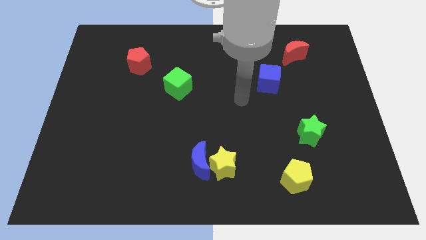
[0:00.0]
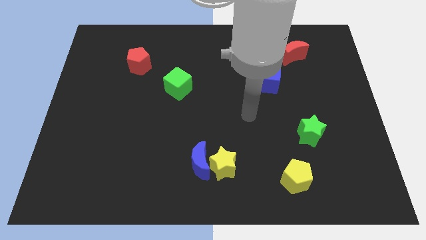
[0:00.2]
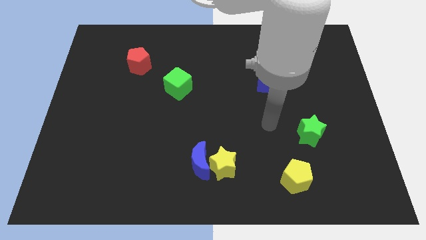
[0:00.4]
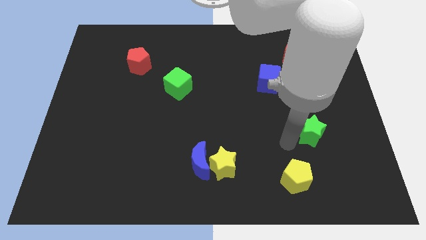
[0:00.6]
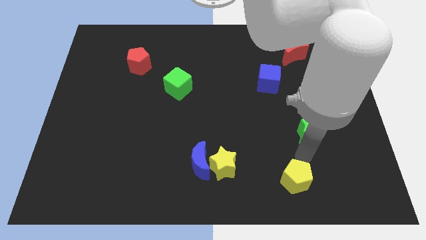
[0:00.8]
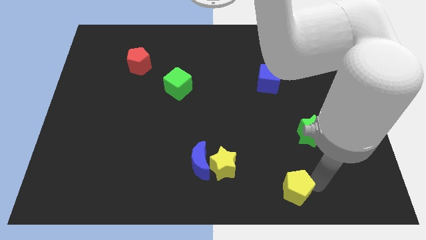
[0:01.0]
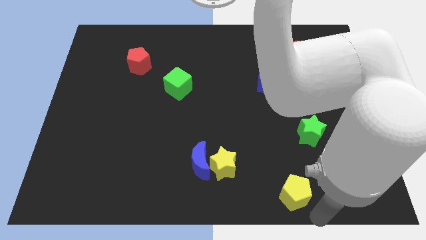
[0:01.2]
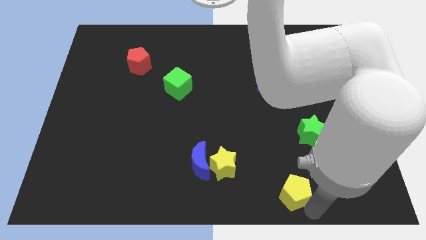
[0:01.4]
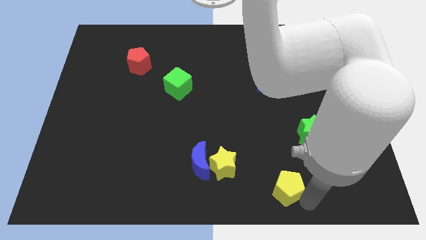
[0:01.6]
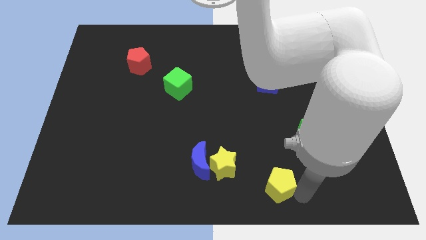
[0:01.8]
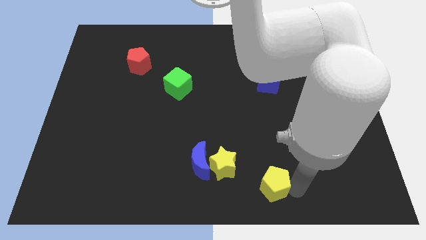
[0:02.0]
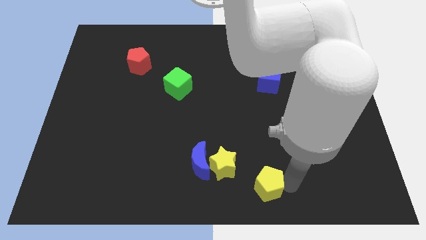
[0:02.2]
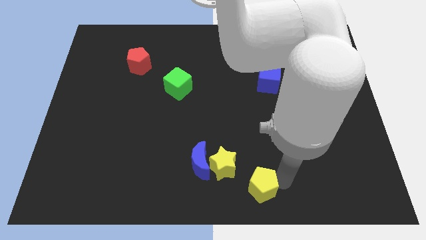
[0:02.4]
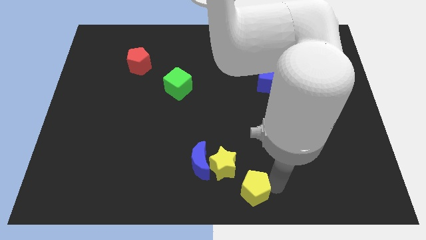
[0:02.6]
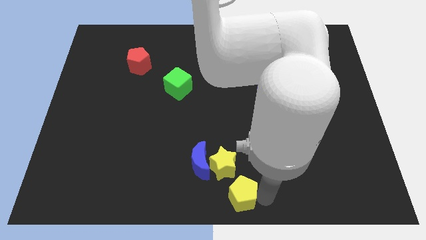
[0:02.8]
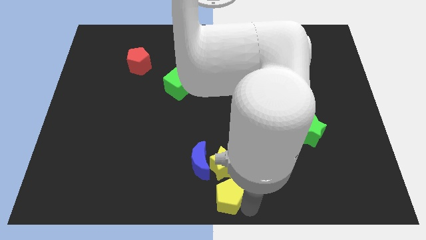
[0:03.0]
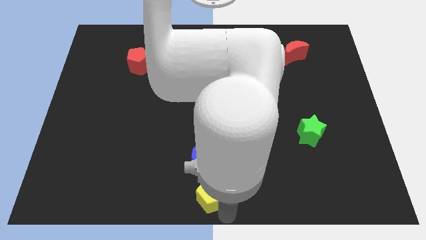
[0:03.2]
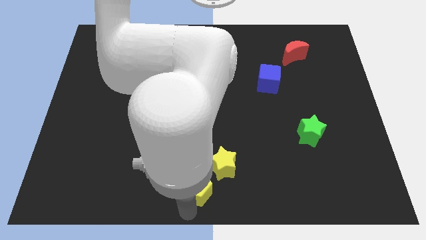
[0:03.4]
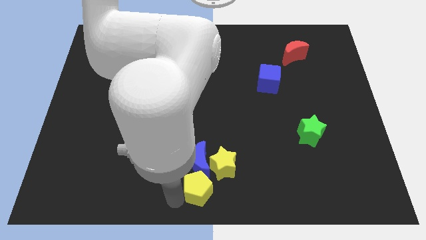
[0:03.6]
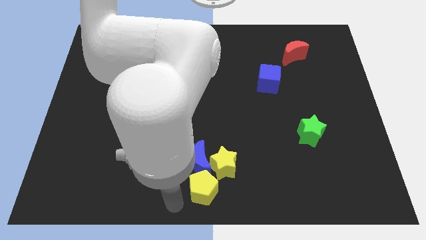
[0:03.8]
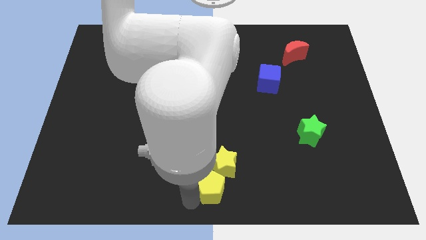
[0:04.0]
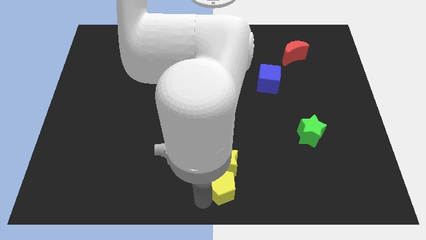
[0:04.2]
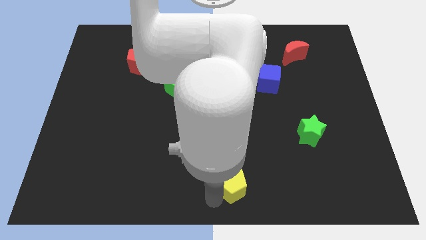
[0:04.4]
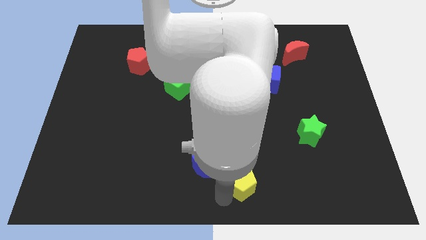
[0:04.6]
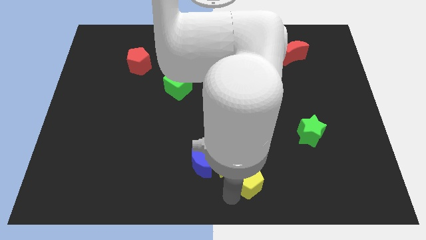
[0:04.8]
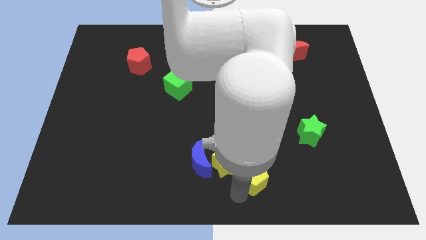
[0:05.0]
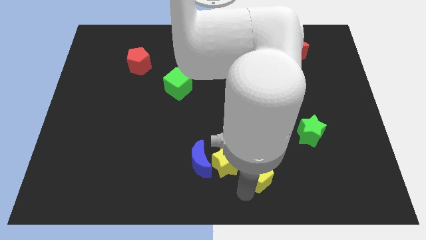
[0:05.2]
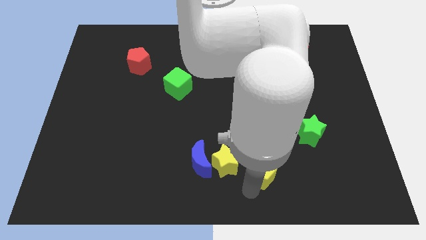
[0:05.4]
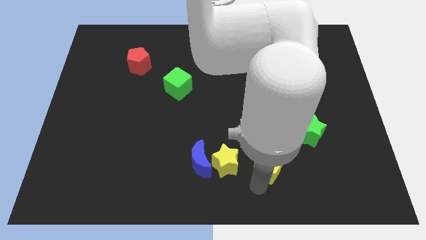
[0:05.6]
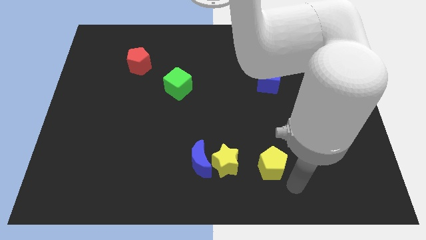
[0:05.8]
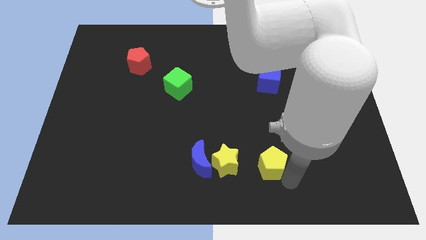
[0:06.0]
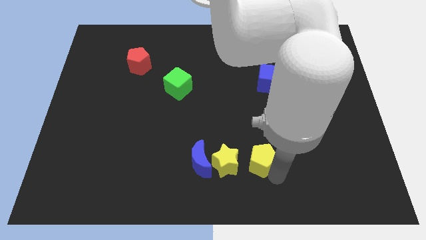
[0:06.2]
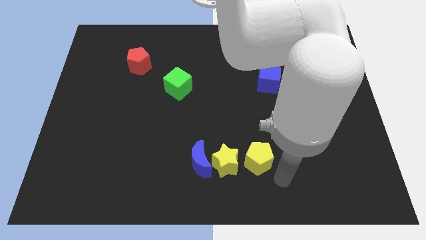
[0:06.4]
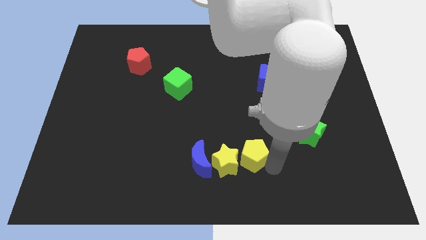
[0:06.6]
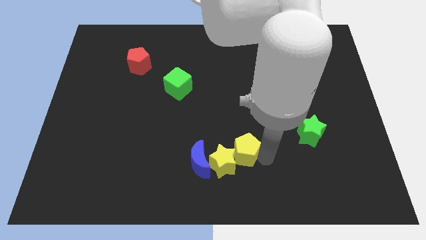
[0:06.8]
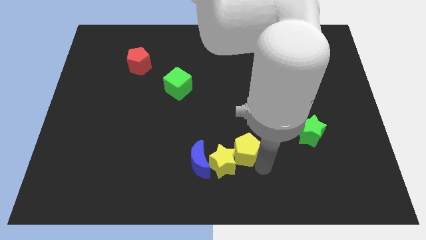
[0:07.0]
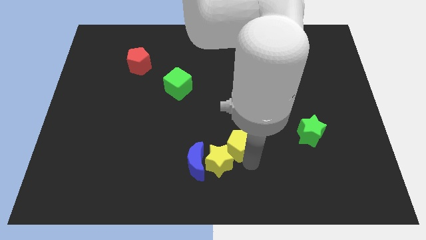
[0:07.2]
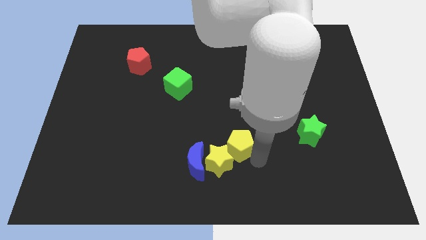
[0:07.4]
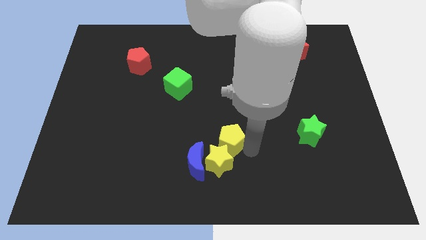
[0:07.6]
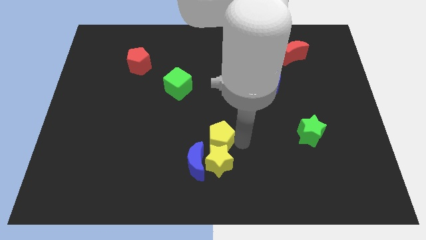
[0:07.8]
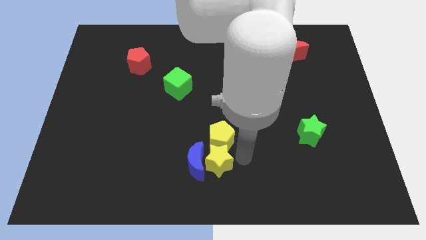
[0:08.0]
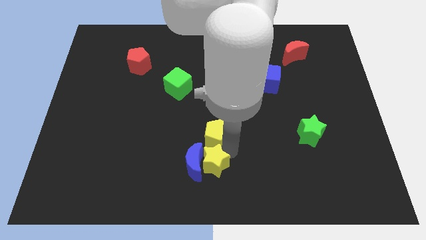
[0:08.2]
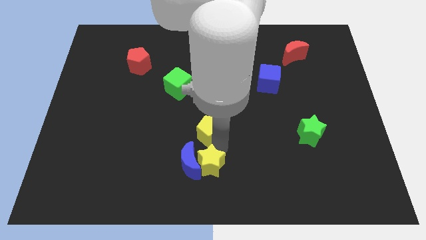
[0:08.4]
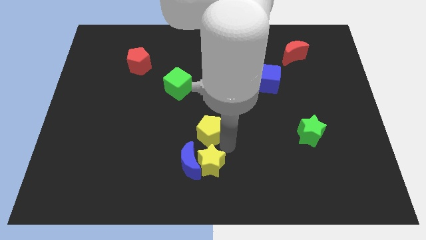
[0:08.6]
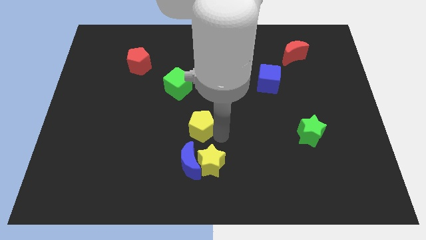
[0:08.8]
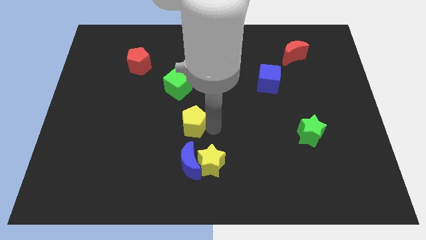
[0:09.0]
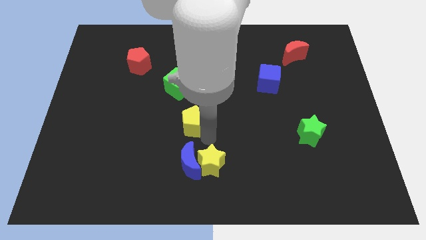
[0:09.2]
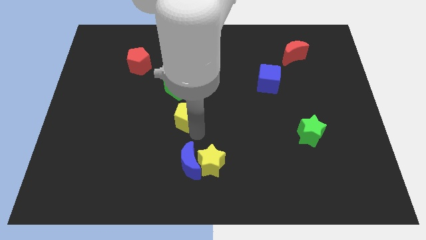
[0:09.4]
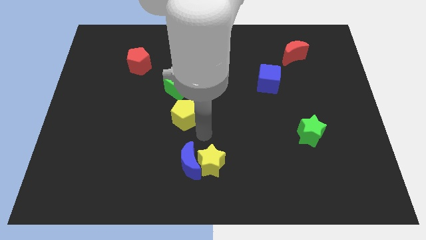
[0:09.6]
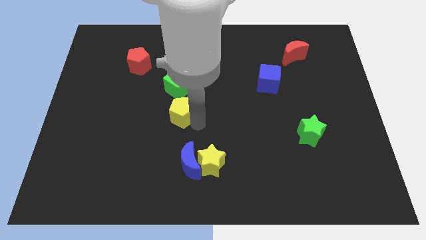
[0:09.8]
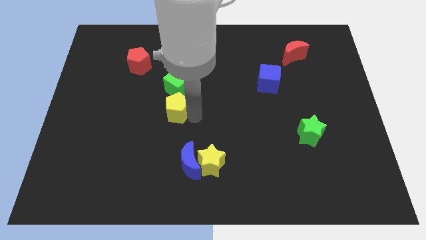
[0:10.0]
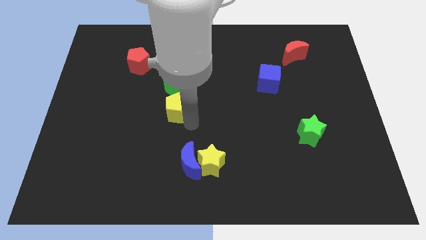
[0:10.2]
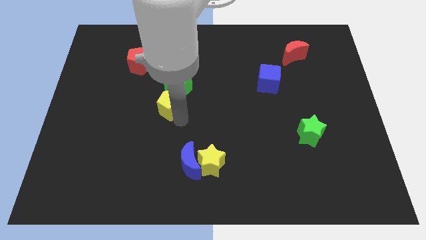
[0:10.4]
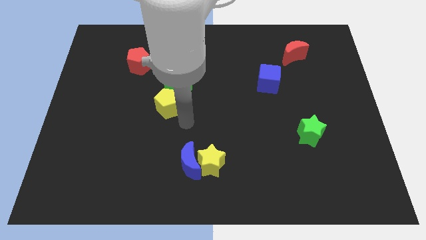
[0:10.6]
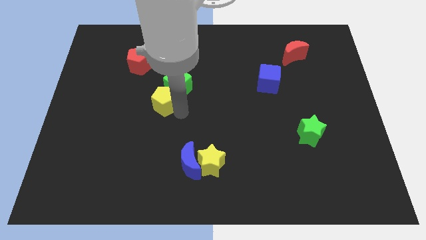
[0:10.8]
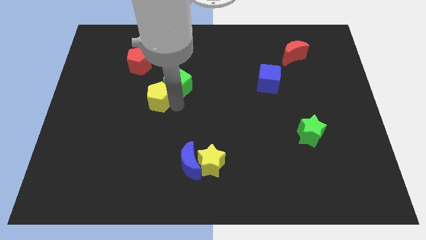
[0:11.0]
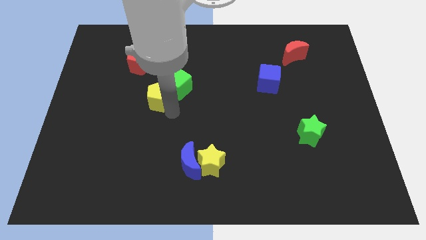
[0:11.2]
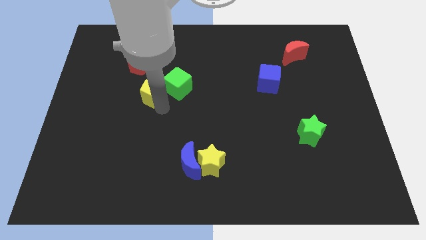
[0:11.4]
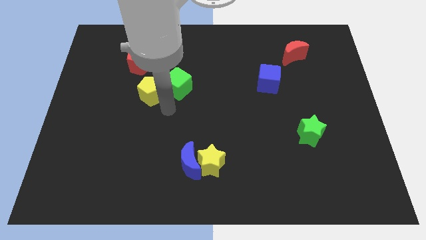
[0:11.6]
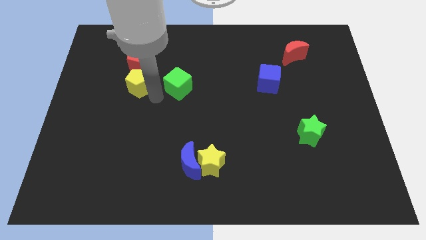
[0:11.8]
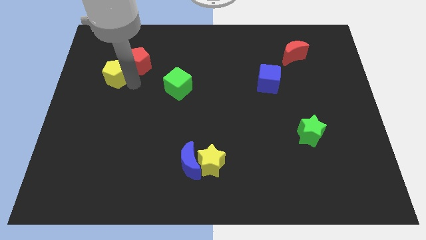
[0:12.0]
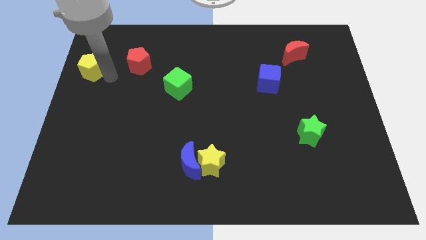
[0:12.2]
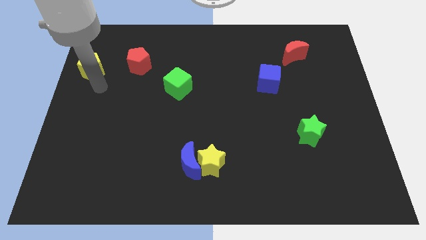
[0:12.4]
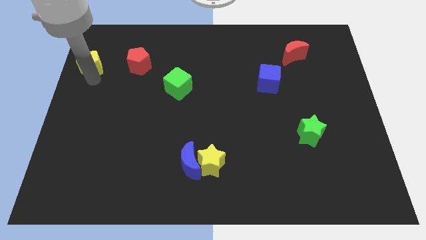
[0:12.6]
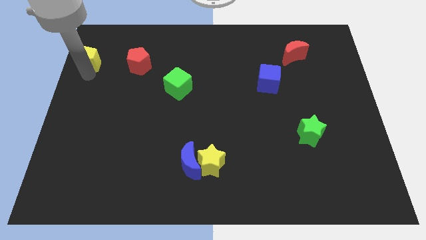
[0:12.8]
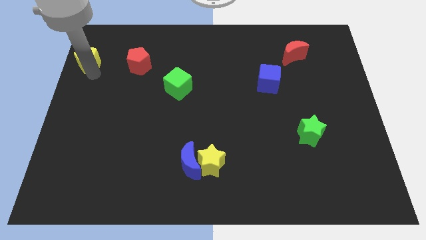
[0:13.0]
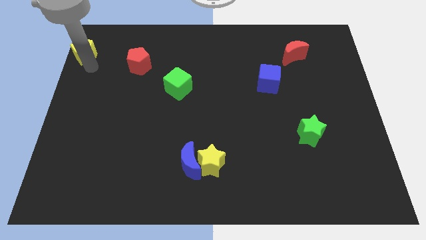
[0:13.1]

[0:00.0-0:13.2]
put the yellow pentagon to the top left of the board
